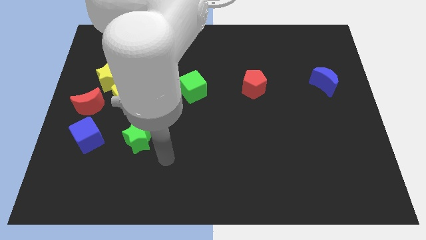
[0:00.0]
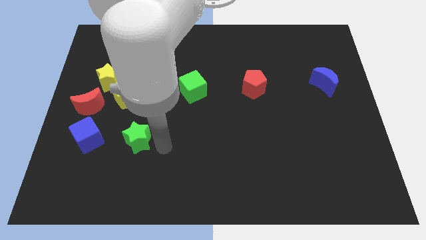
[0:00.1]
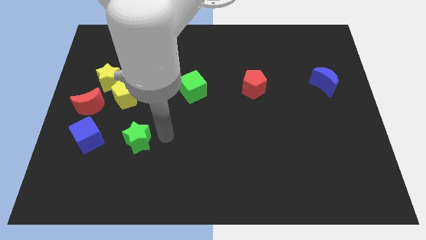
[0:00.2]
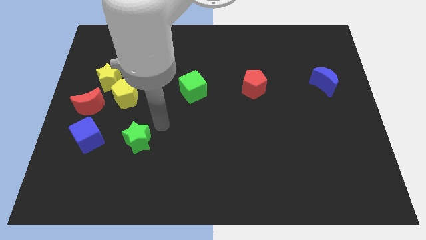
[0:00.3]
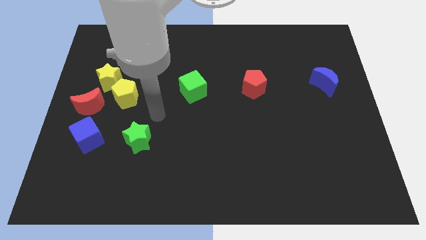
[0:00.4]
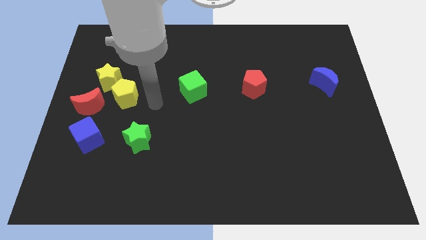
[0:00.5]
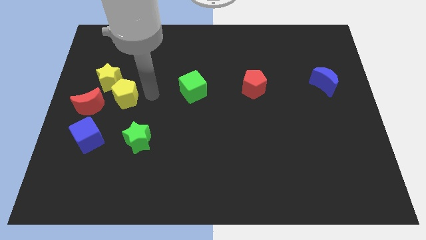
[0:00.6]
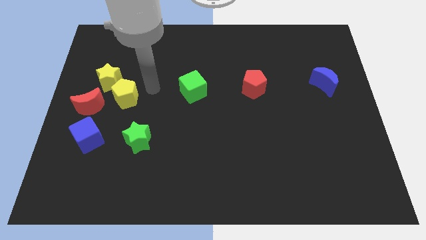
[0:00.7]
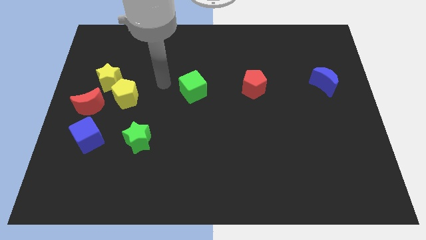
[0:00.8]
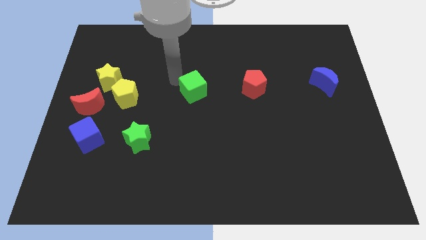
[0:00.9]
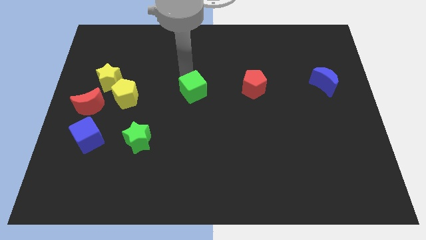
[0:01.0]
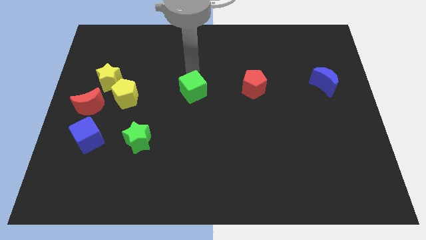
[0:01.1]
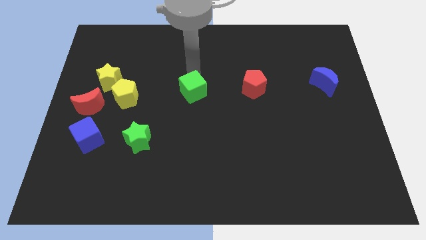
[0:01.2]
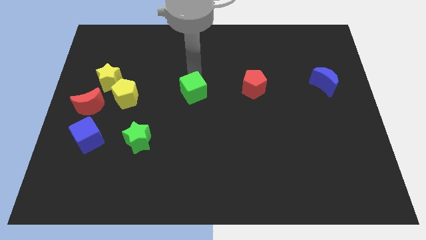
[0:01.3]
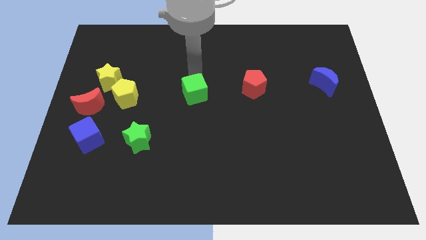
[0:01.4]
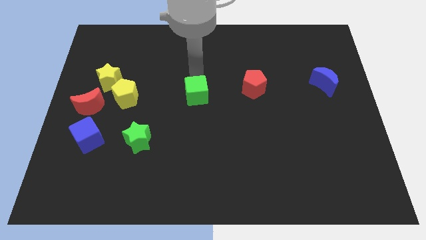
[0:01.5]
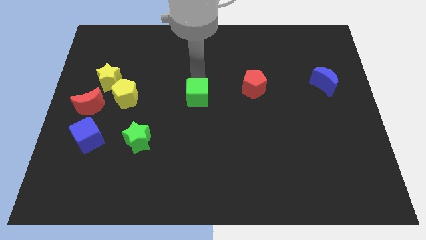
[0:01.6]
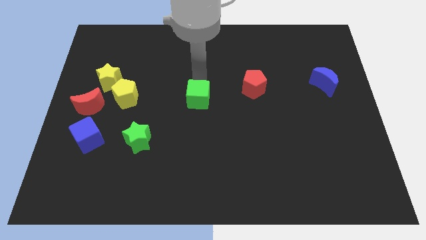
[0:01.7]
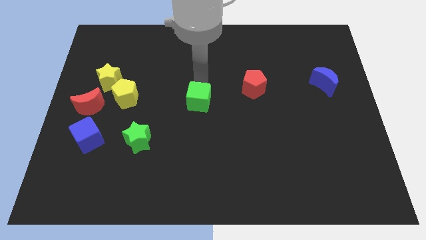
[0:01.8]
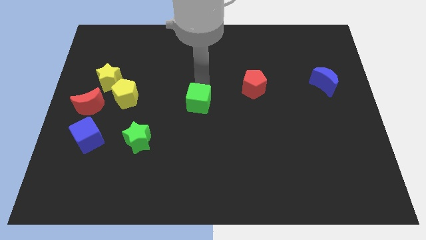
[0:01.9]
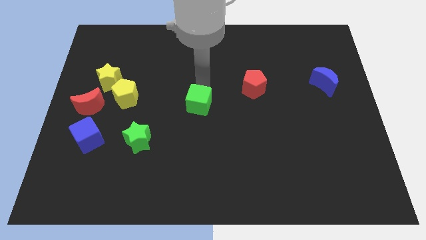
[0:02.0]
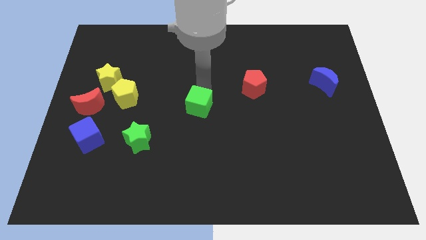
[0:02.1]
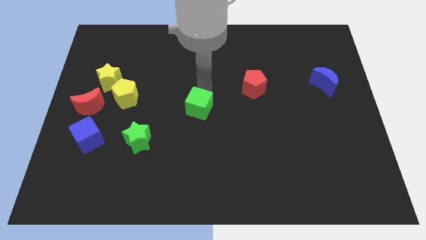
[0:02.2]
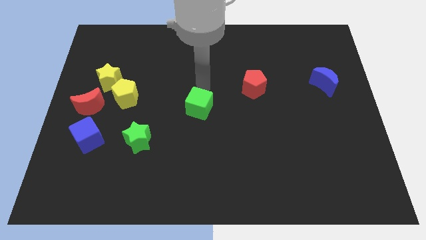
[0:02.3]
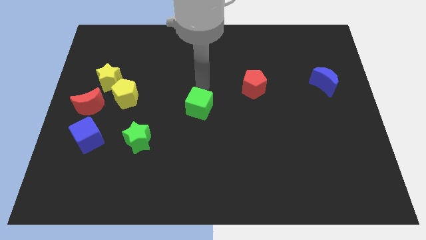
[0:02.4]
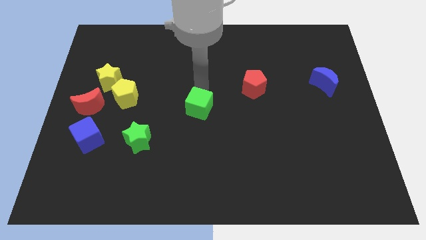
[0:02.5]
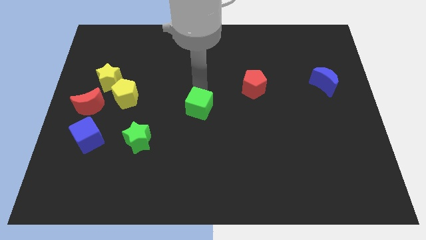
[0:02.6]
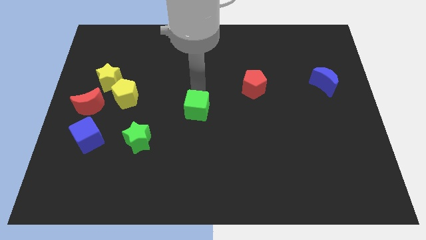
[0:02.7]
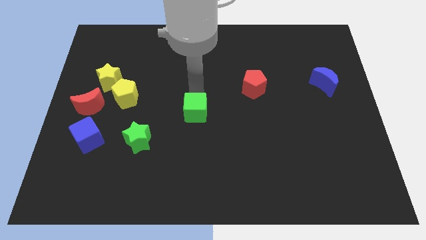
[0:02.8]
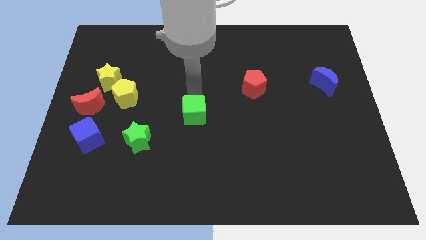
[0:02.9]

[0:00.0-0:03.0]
slightly move the green cube downwards

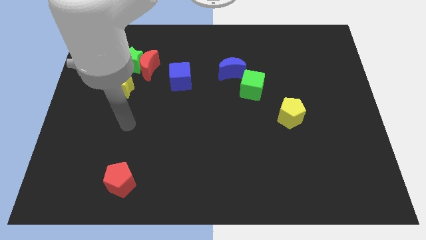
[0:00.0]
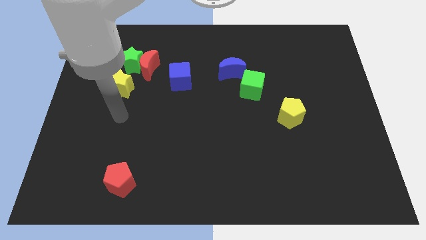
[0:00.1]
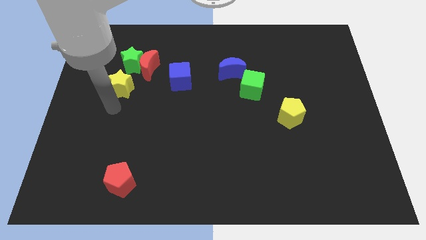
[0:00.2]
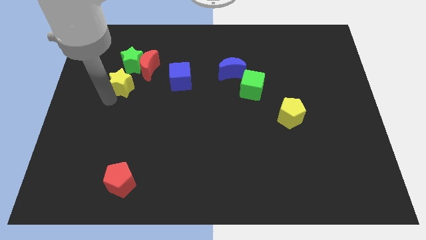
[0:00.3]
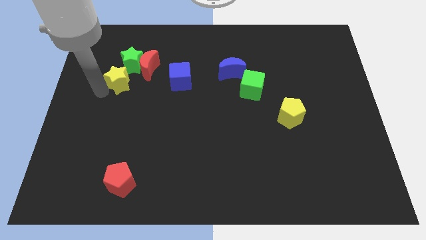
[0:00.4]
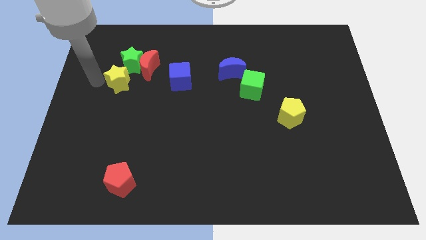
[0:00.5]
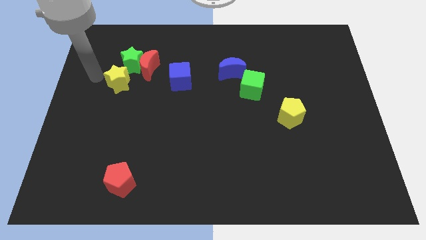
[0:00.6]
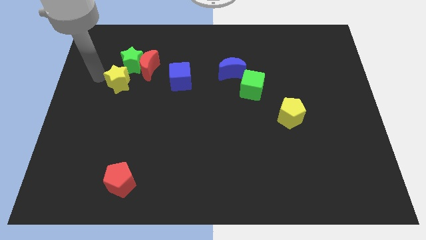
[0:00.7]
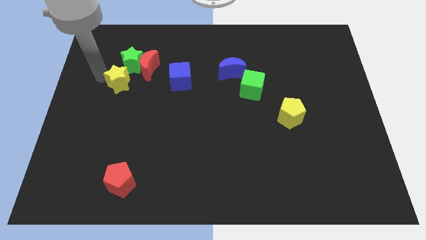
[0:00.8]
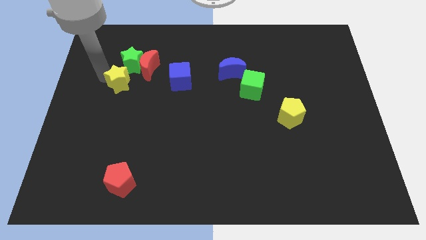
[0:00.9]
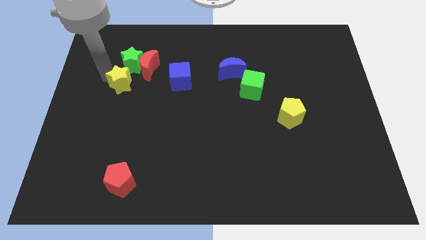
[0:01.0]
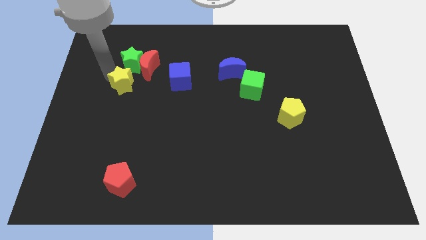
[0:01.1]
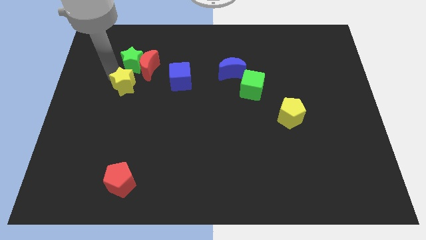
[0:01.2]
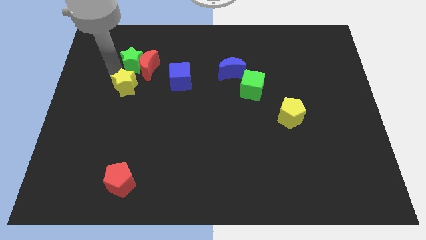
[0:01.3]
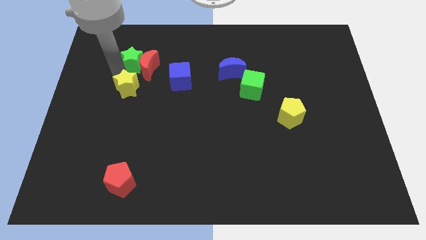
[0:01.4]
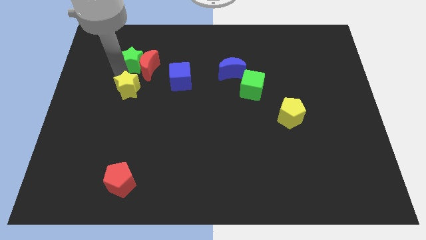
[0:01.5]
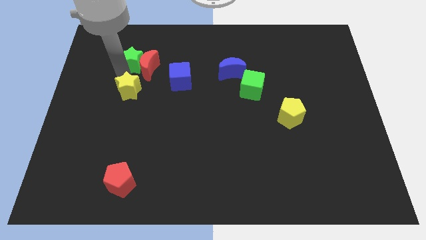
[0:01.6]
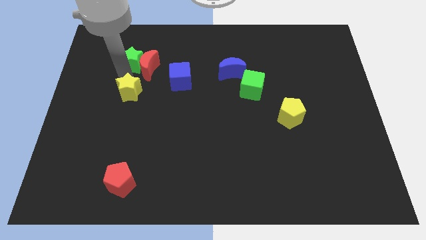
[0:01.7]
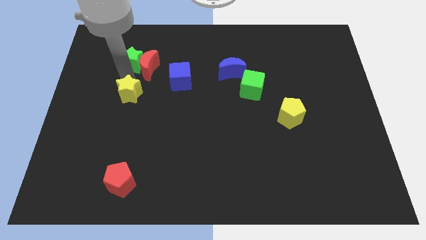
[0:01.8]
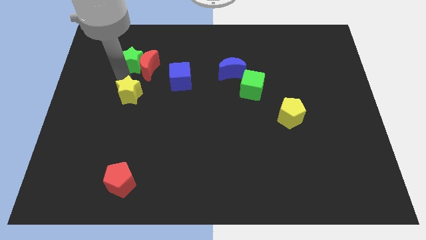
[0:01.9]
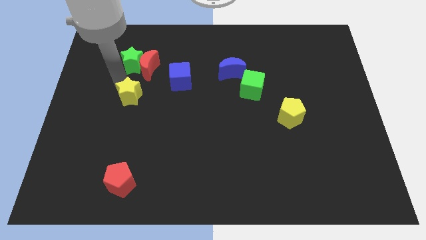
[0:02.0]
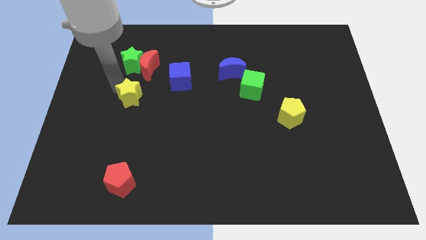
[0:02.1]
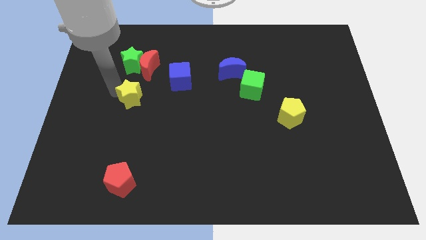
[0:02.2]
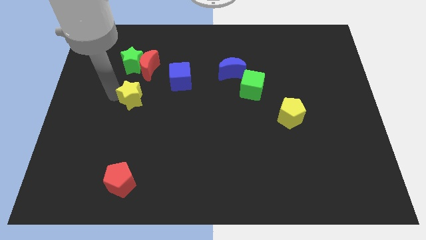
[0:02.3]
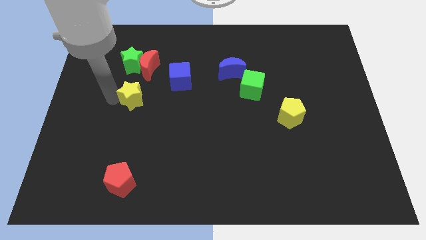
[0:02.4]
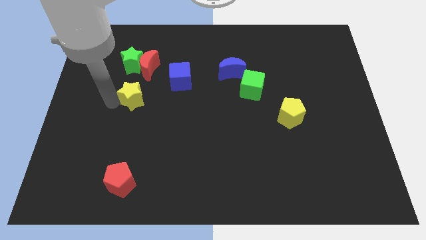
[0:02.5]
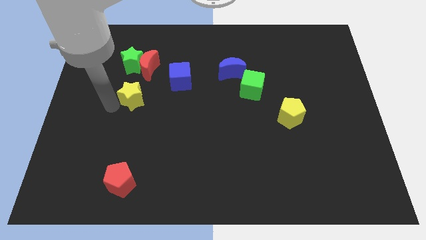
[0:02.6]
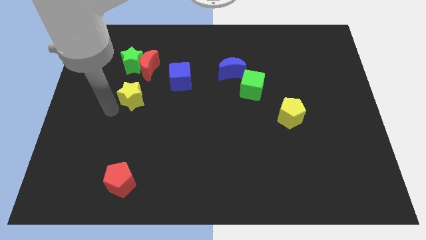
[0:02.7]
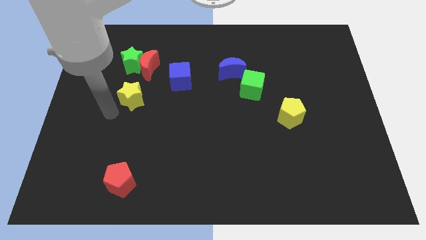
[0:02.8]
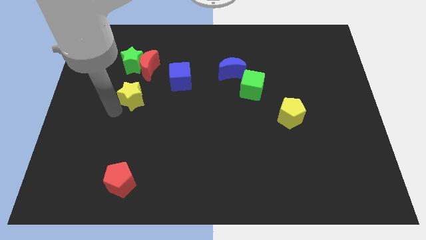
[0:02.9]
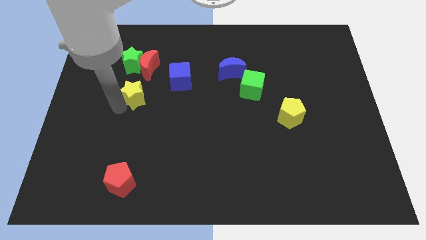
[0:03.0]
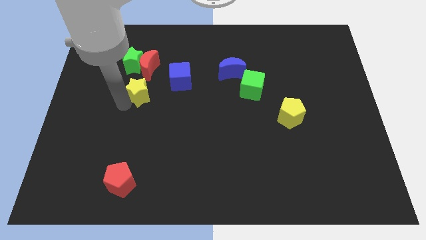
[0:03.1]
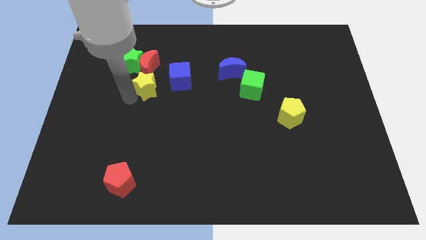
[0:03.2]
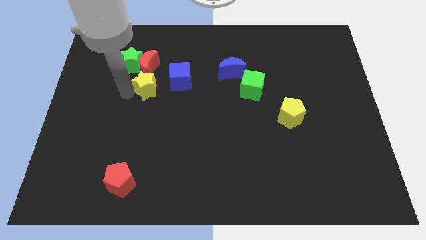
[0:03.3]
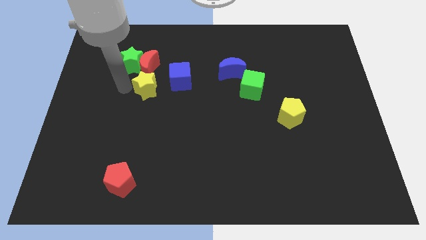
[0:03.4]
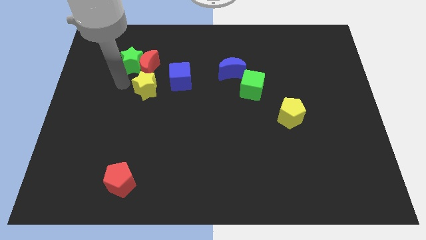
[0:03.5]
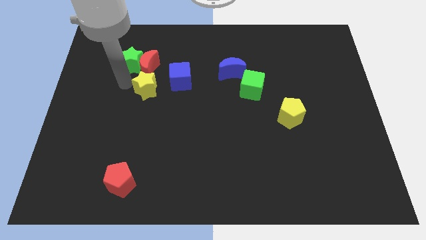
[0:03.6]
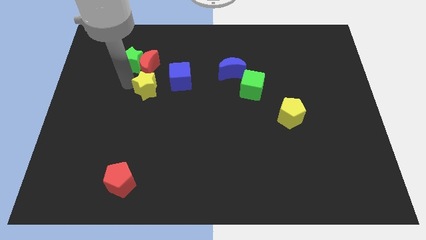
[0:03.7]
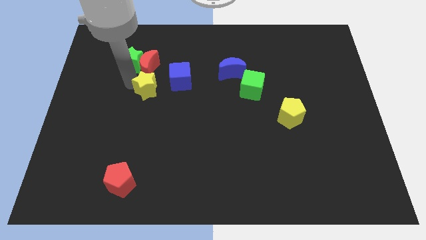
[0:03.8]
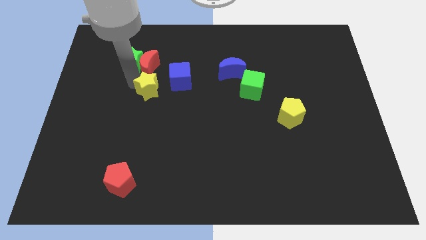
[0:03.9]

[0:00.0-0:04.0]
slightly move the yellow star right

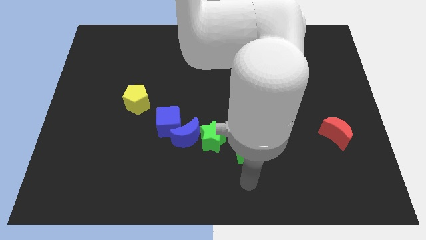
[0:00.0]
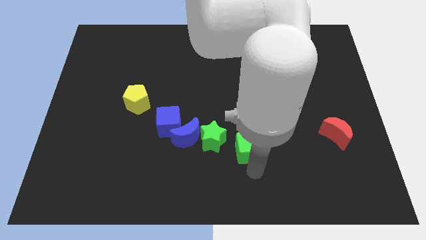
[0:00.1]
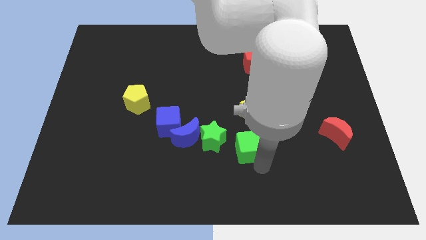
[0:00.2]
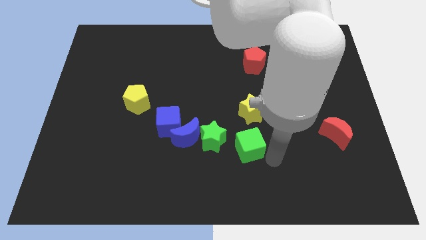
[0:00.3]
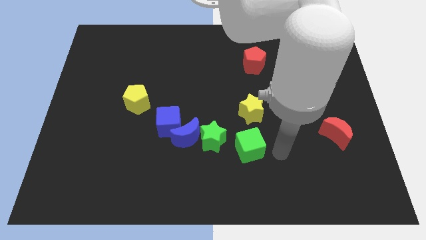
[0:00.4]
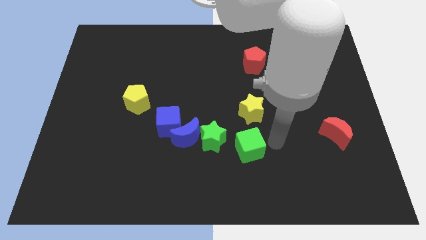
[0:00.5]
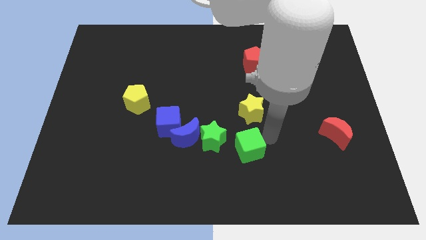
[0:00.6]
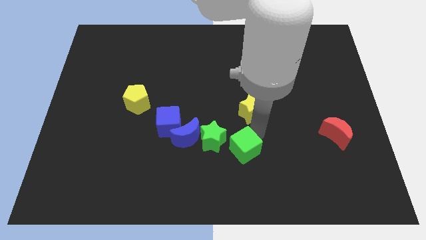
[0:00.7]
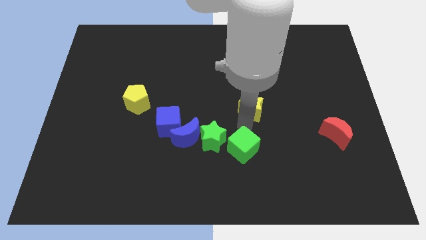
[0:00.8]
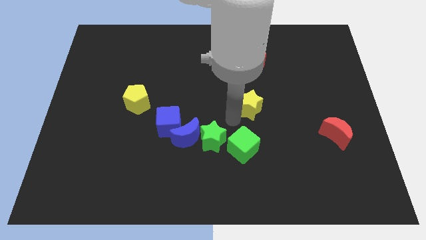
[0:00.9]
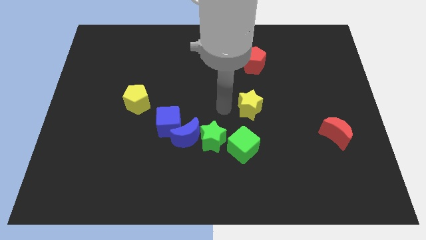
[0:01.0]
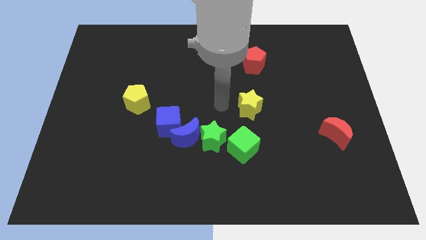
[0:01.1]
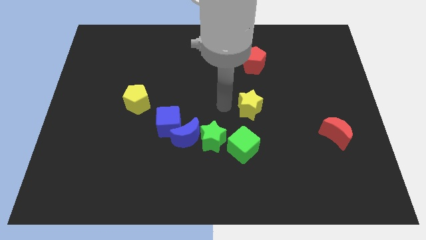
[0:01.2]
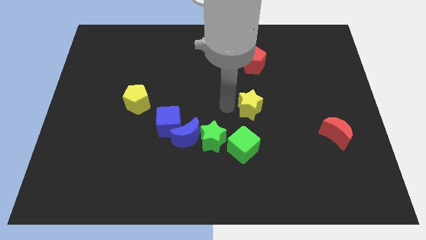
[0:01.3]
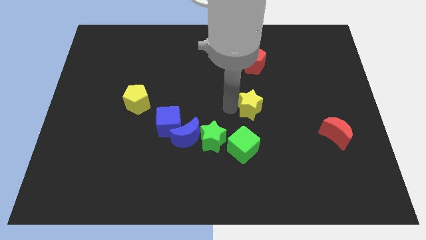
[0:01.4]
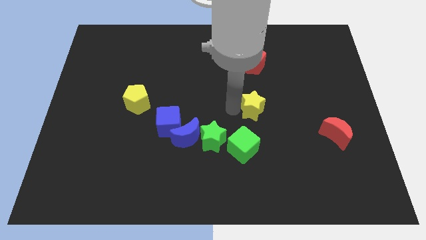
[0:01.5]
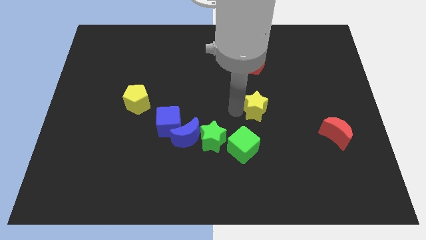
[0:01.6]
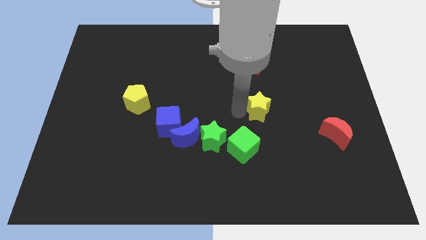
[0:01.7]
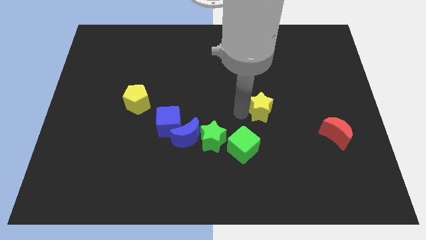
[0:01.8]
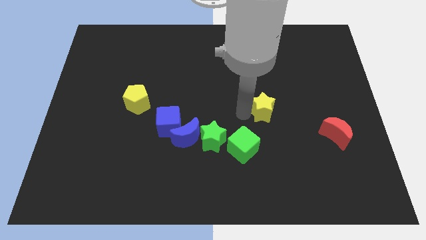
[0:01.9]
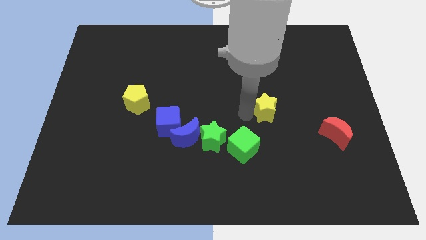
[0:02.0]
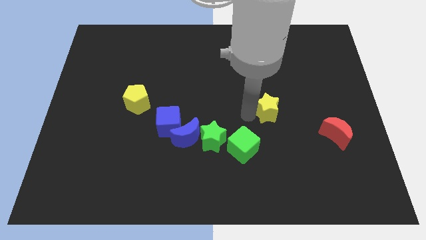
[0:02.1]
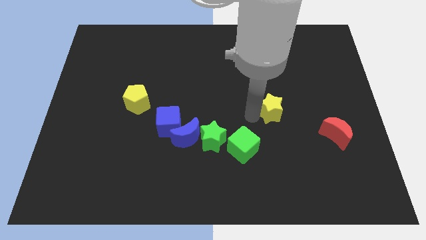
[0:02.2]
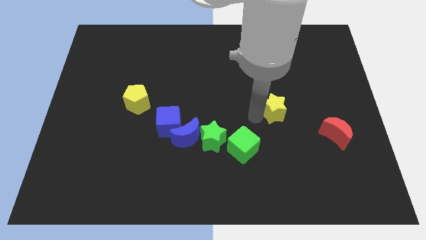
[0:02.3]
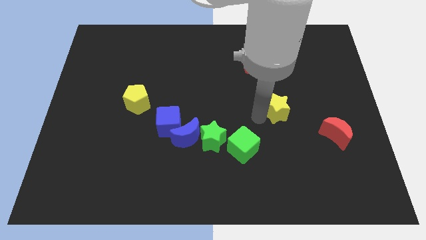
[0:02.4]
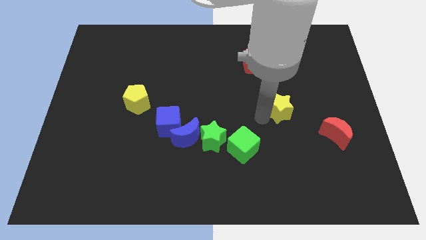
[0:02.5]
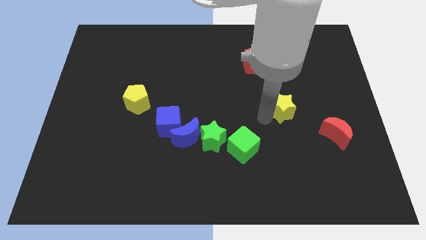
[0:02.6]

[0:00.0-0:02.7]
push the yellow star to the right a little
